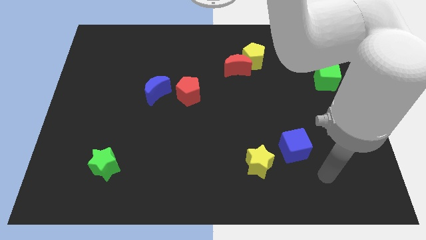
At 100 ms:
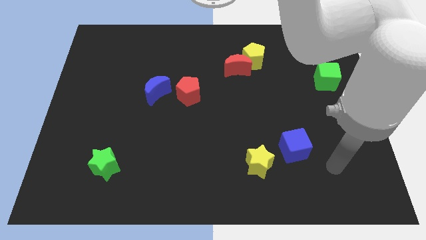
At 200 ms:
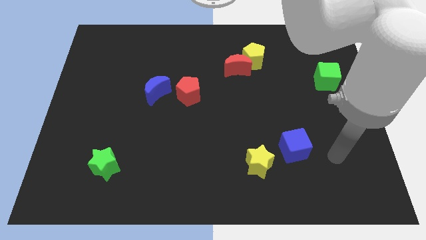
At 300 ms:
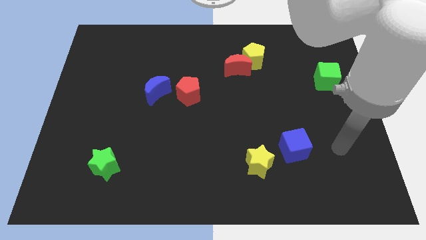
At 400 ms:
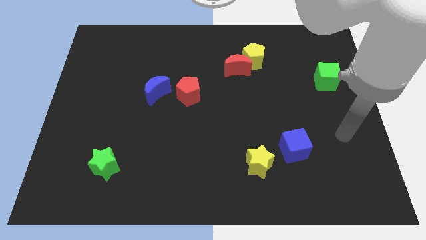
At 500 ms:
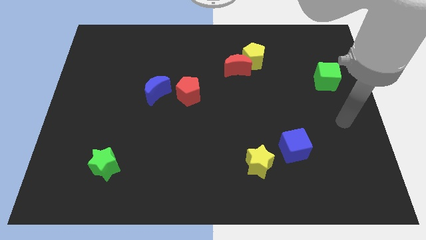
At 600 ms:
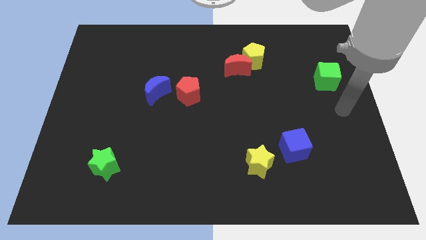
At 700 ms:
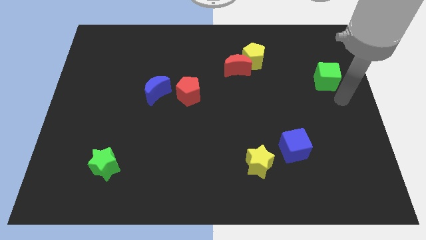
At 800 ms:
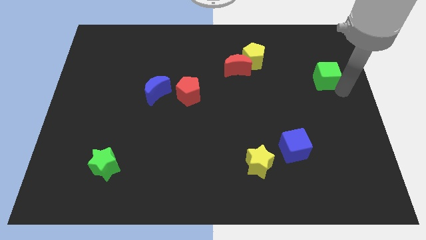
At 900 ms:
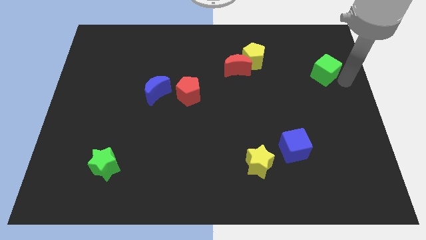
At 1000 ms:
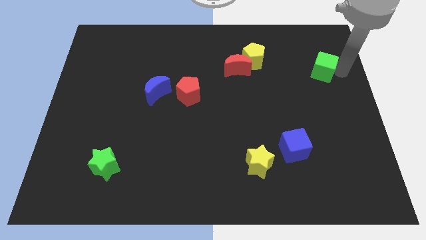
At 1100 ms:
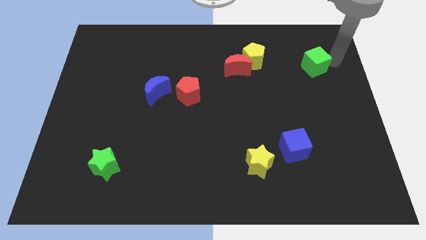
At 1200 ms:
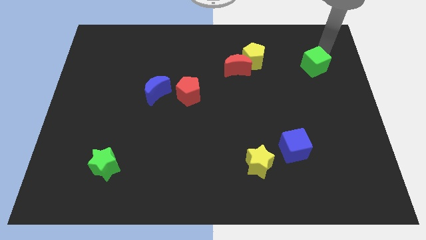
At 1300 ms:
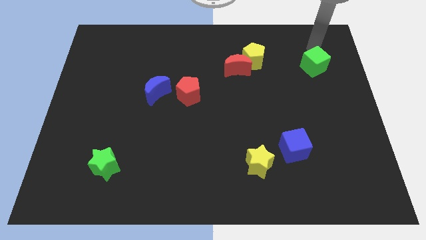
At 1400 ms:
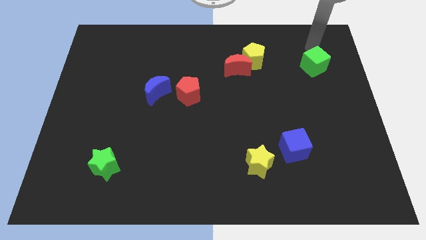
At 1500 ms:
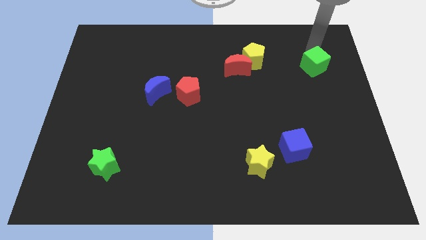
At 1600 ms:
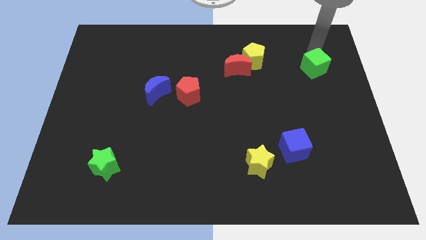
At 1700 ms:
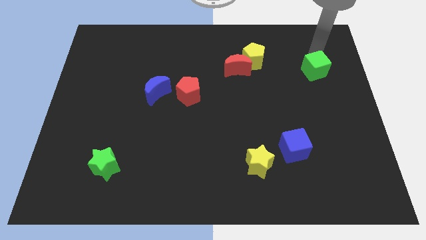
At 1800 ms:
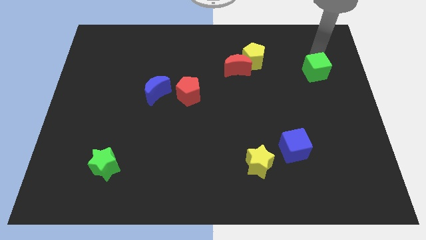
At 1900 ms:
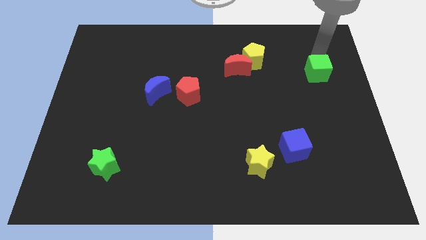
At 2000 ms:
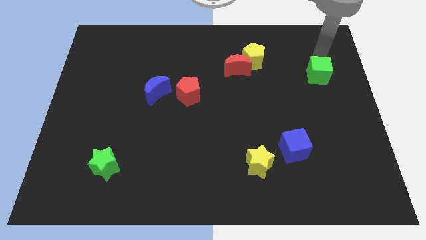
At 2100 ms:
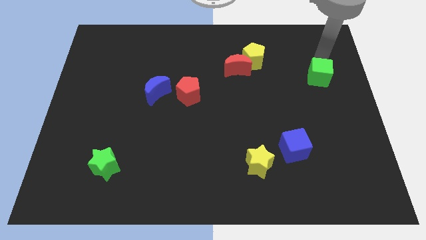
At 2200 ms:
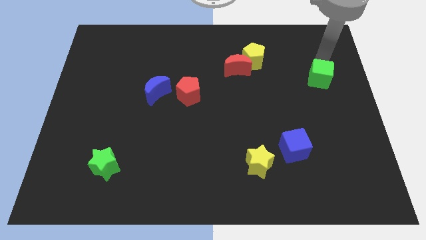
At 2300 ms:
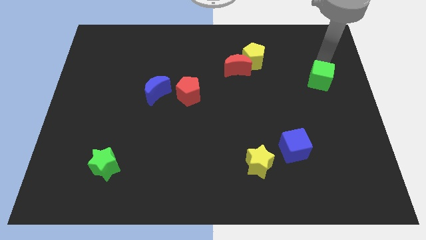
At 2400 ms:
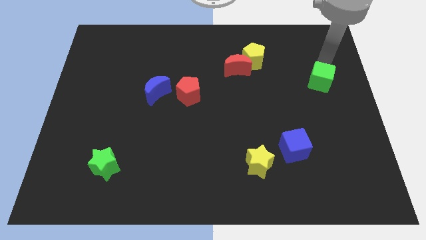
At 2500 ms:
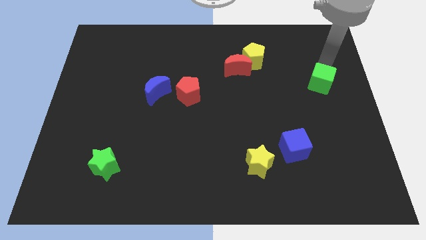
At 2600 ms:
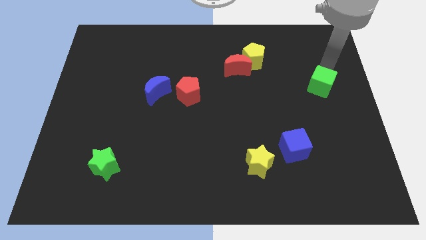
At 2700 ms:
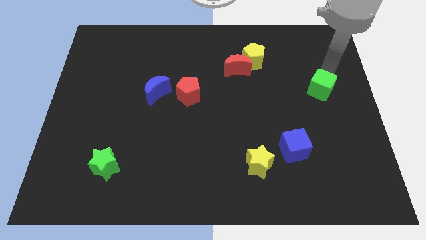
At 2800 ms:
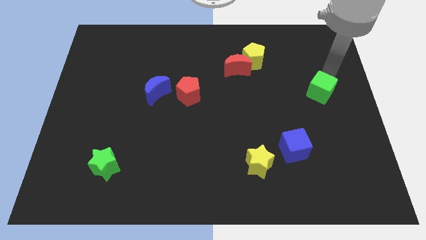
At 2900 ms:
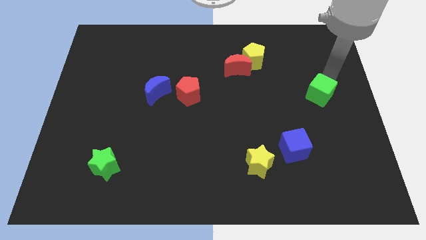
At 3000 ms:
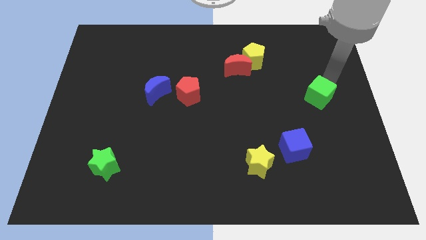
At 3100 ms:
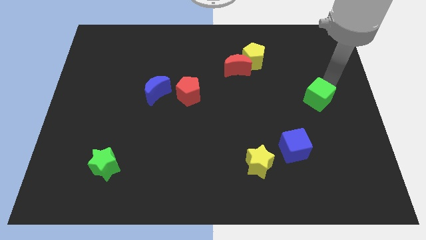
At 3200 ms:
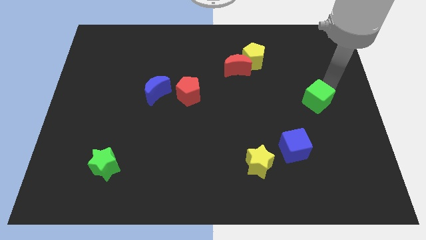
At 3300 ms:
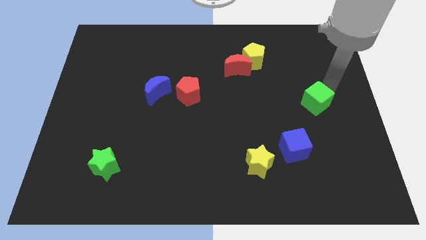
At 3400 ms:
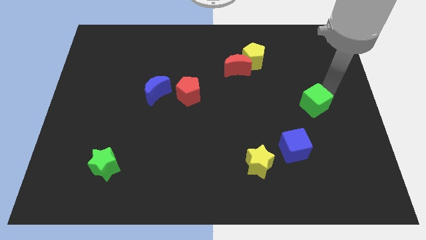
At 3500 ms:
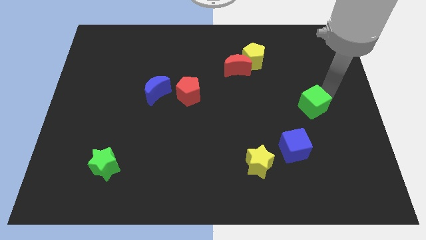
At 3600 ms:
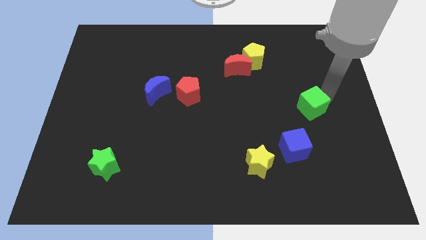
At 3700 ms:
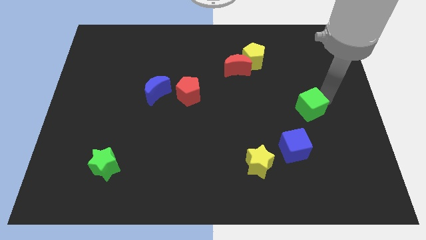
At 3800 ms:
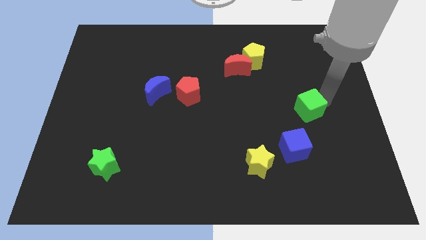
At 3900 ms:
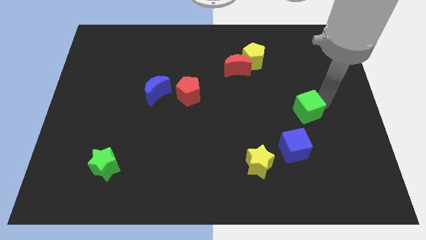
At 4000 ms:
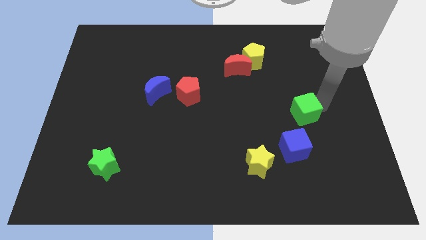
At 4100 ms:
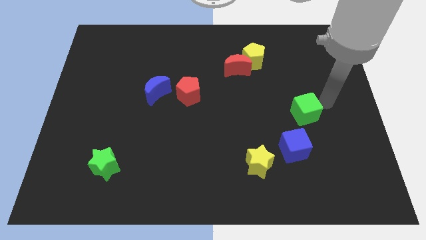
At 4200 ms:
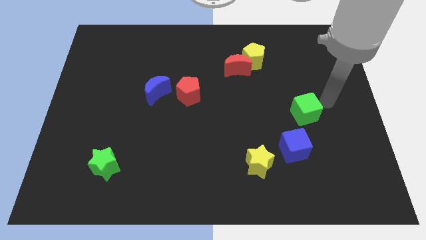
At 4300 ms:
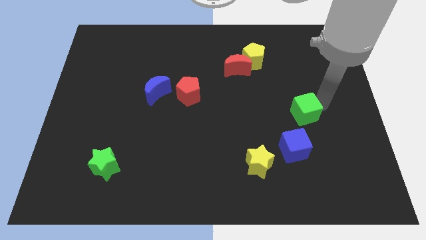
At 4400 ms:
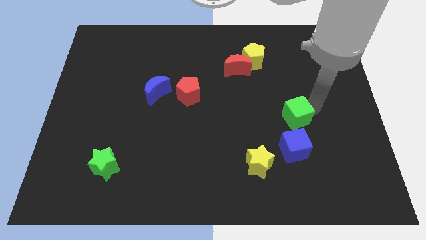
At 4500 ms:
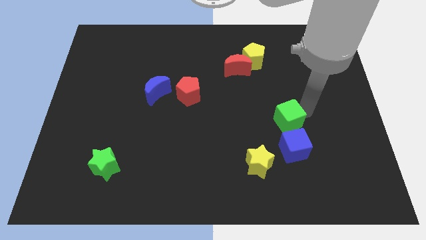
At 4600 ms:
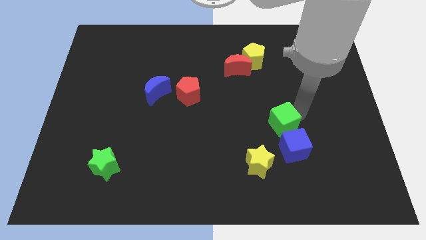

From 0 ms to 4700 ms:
push the green cube diagonally up and to the left of the blue cube

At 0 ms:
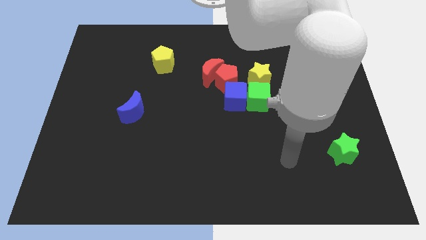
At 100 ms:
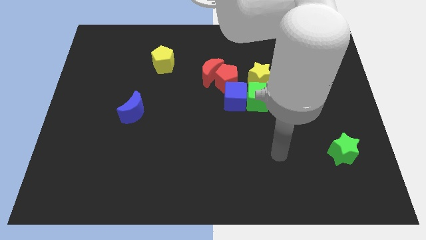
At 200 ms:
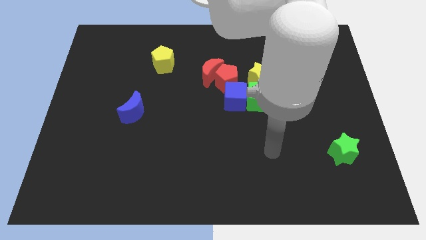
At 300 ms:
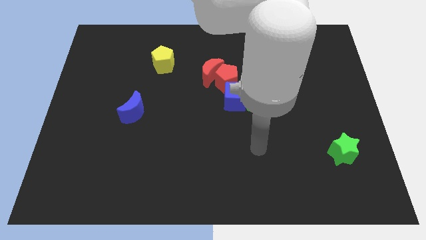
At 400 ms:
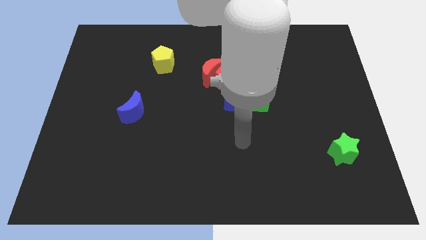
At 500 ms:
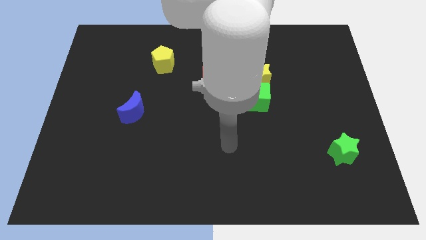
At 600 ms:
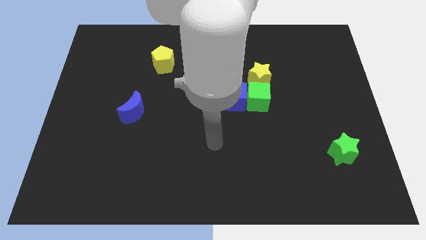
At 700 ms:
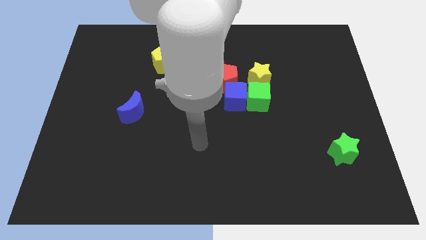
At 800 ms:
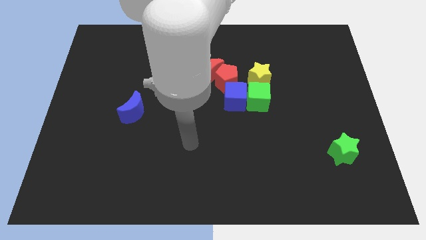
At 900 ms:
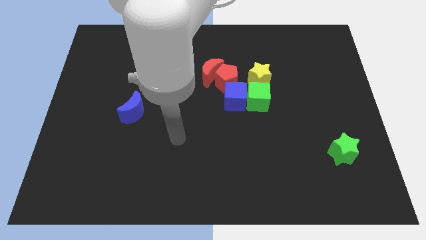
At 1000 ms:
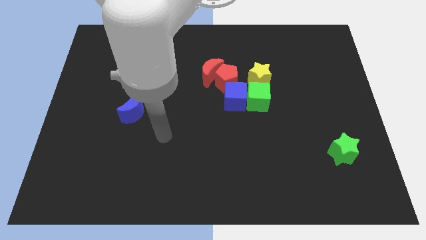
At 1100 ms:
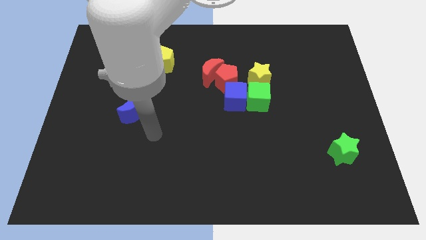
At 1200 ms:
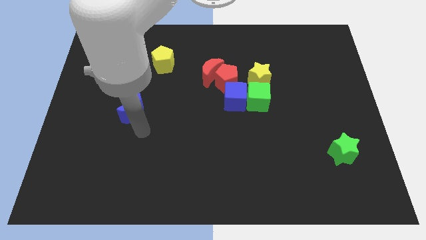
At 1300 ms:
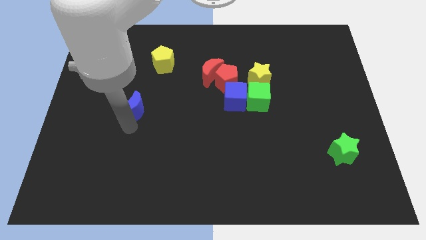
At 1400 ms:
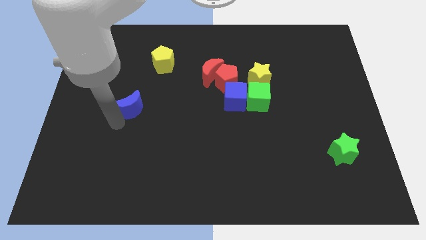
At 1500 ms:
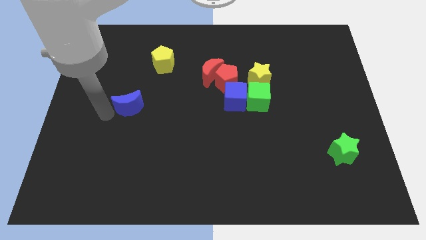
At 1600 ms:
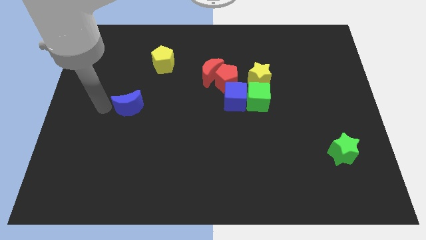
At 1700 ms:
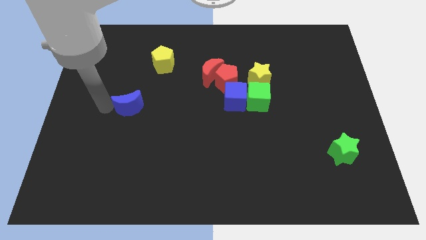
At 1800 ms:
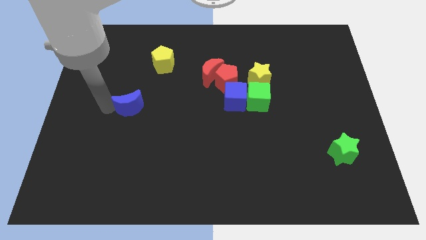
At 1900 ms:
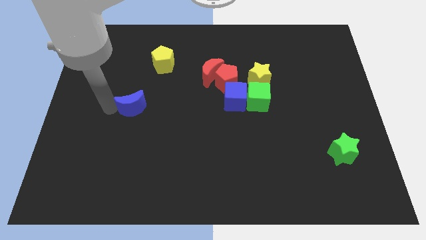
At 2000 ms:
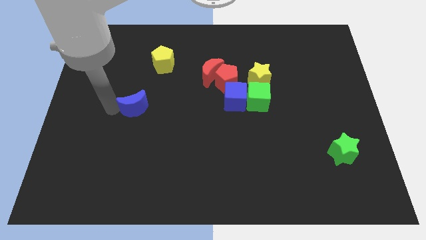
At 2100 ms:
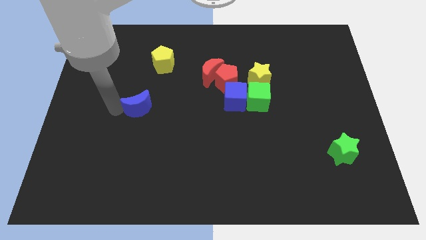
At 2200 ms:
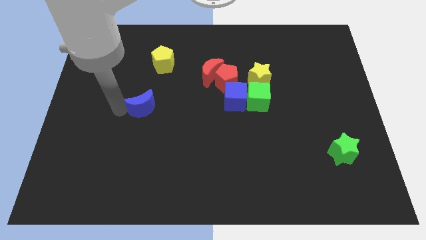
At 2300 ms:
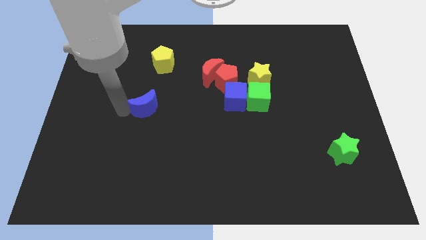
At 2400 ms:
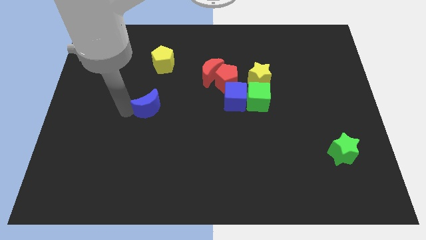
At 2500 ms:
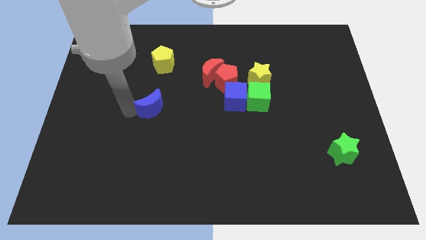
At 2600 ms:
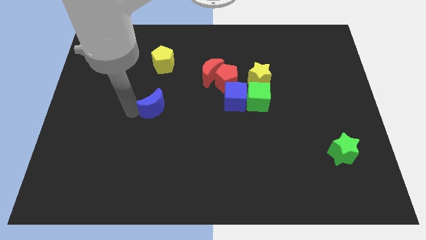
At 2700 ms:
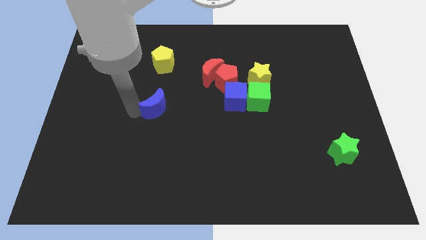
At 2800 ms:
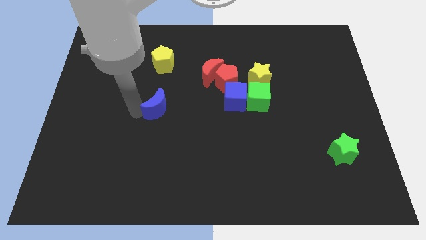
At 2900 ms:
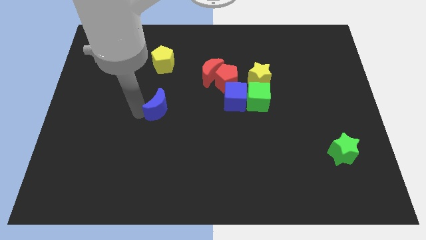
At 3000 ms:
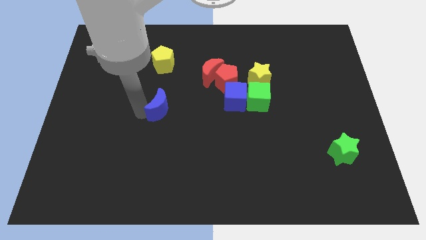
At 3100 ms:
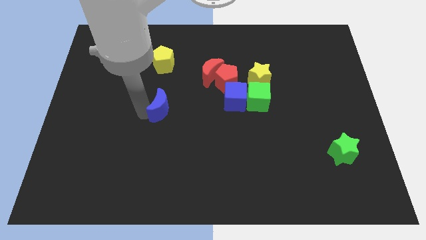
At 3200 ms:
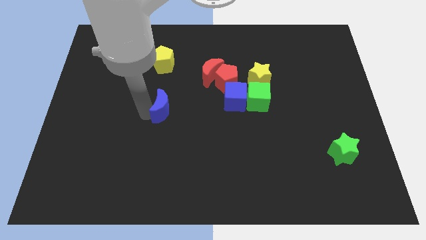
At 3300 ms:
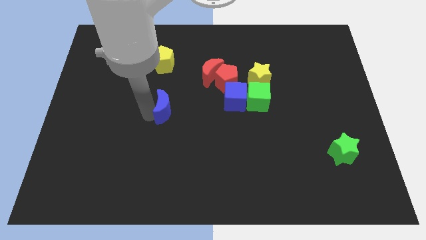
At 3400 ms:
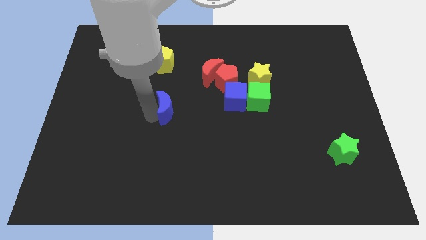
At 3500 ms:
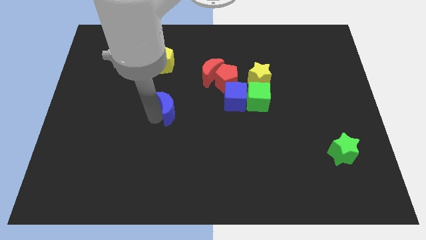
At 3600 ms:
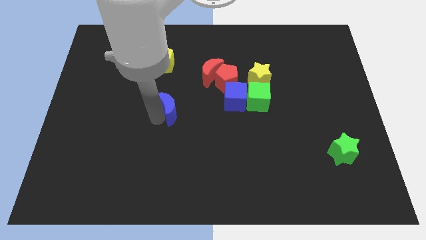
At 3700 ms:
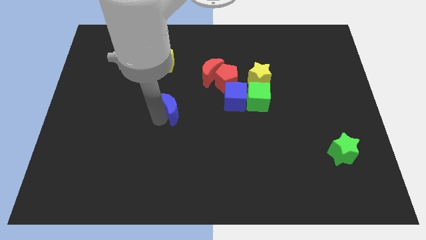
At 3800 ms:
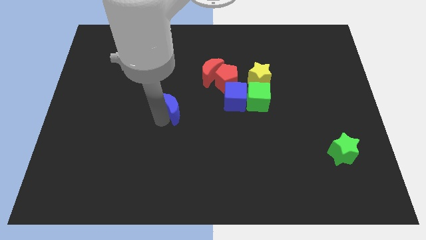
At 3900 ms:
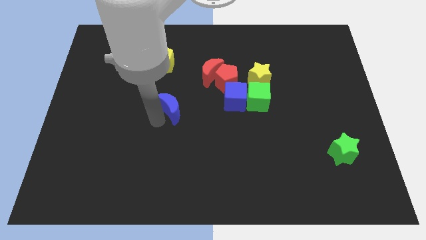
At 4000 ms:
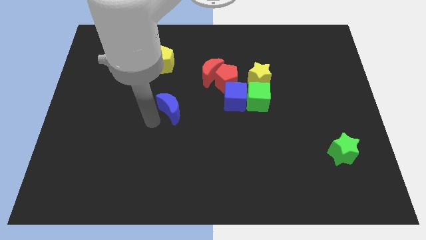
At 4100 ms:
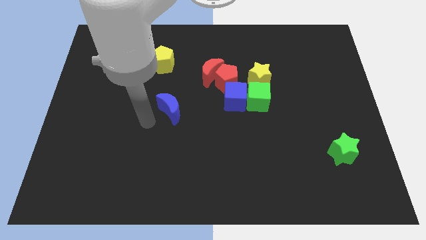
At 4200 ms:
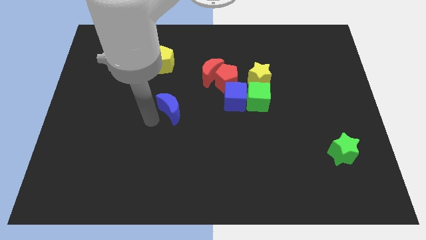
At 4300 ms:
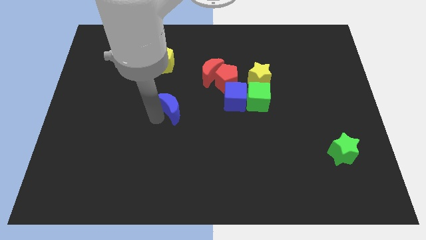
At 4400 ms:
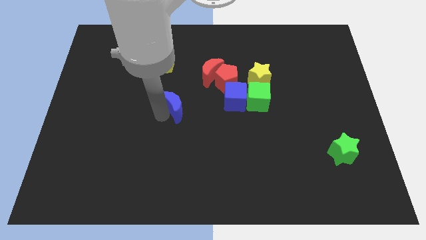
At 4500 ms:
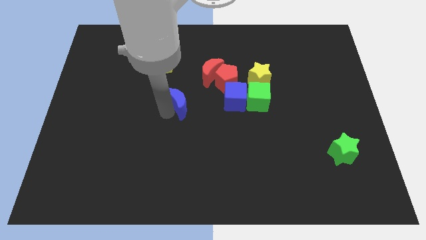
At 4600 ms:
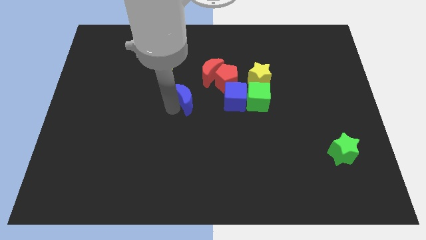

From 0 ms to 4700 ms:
put the blue moon to the bottom left side of the red pentagon
